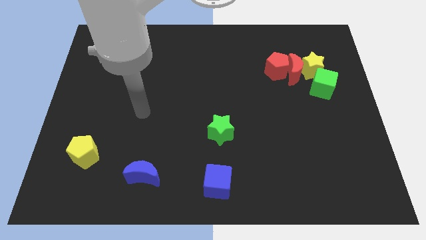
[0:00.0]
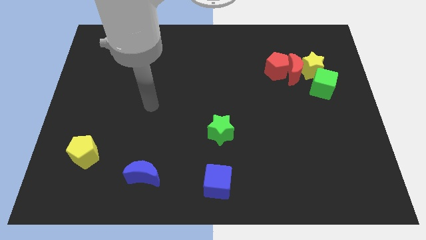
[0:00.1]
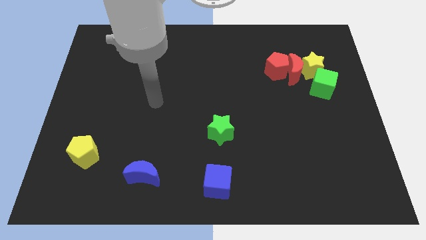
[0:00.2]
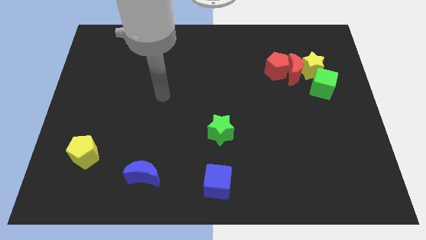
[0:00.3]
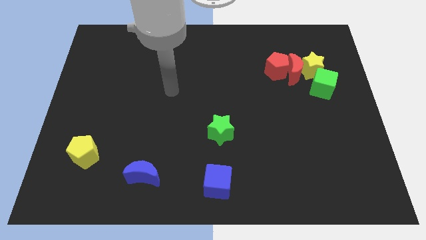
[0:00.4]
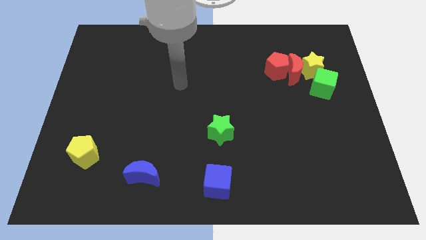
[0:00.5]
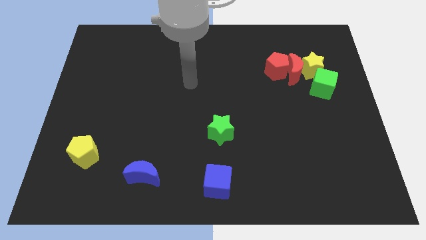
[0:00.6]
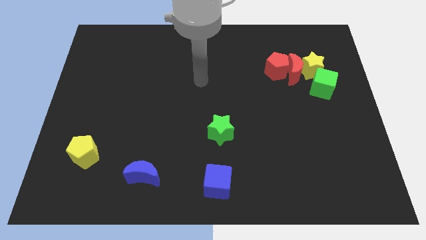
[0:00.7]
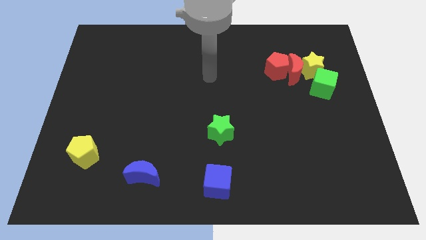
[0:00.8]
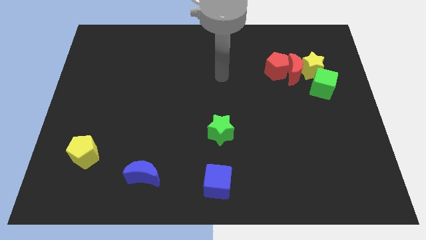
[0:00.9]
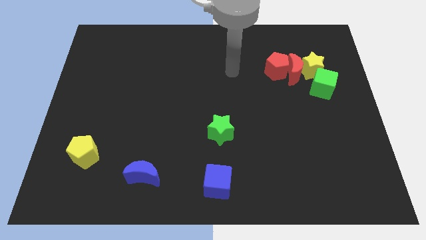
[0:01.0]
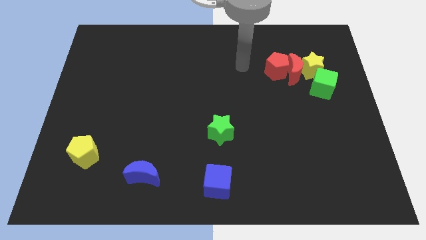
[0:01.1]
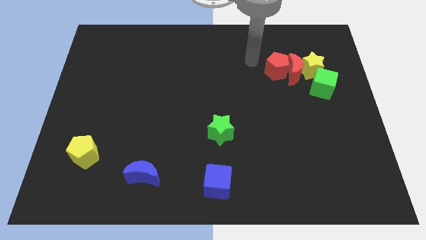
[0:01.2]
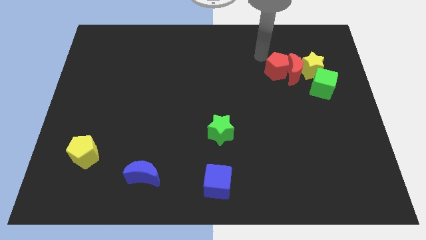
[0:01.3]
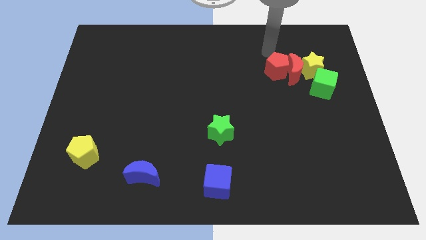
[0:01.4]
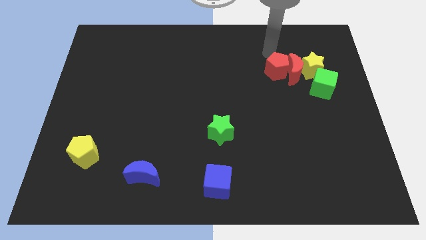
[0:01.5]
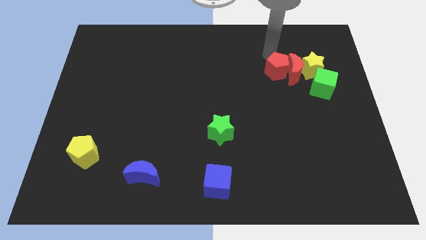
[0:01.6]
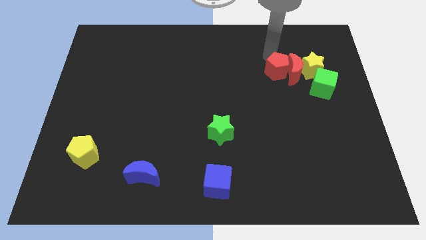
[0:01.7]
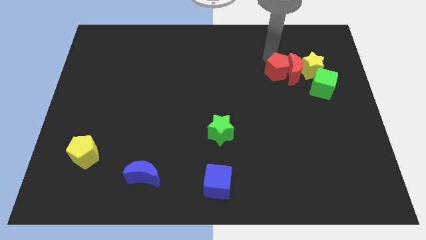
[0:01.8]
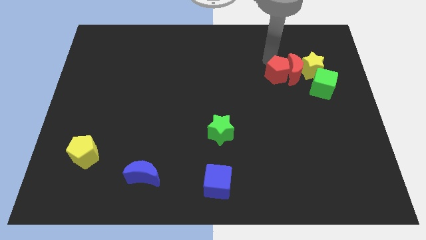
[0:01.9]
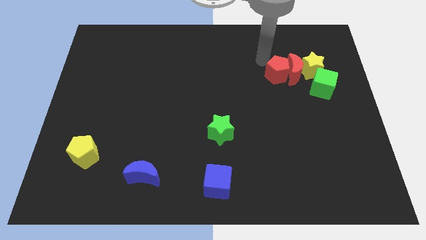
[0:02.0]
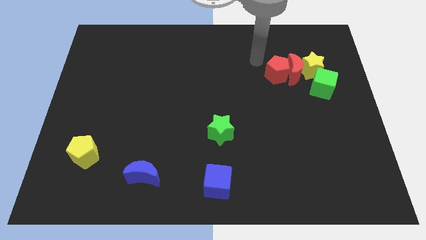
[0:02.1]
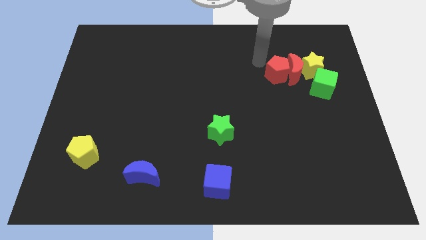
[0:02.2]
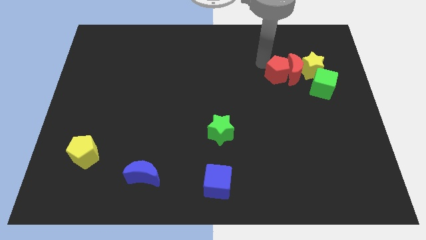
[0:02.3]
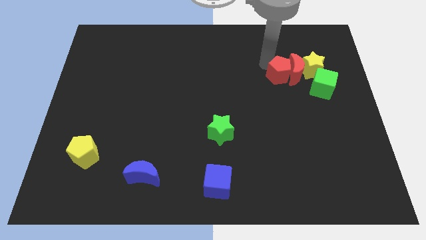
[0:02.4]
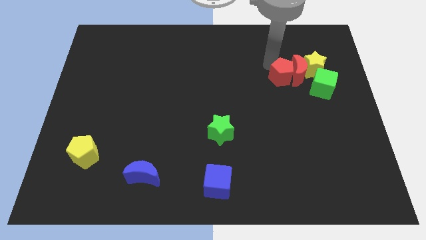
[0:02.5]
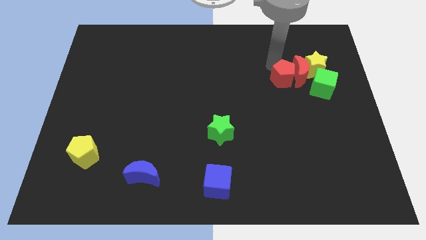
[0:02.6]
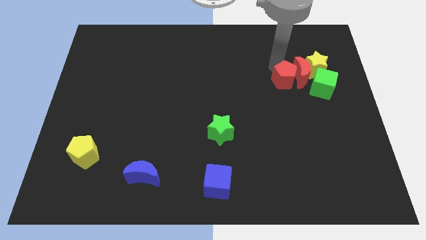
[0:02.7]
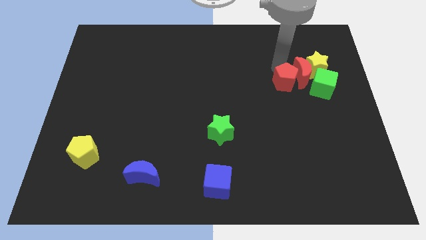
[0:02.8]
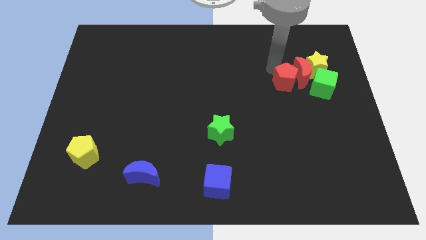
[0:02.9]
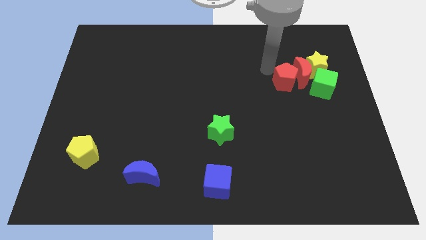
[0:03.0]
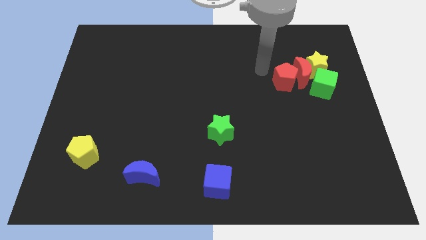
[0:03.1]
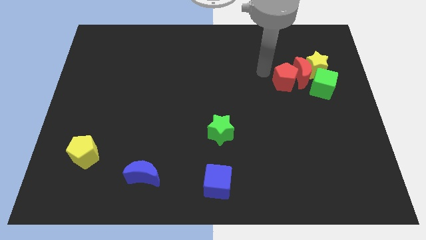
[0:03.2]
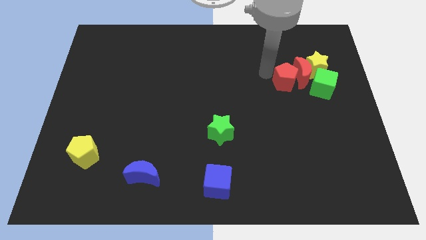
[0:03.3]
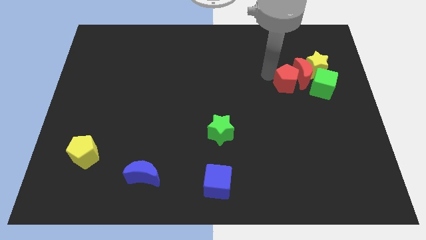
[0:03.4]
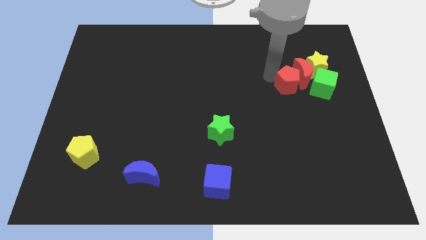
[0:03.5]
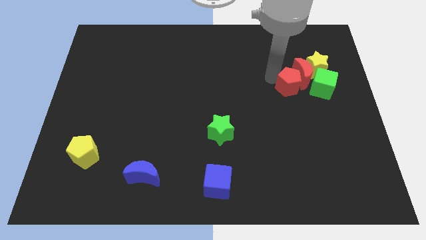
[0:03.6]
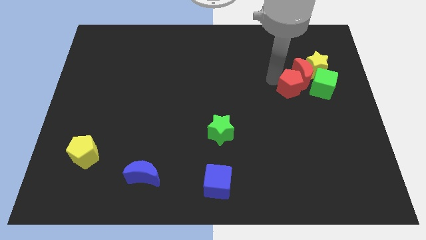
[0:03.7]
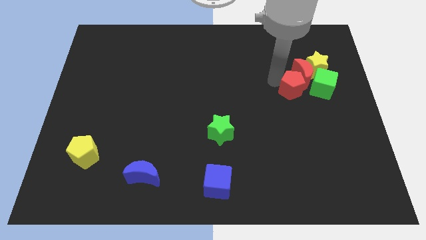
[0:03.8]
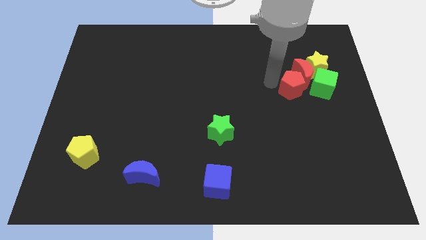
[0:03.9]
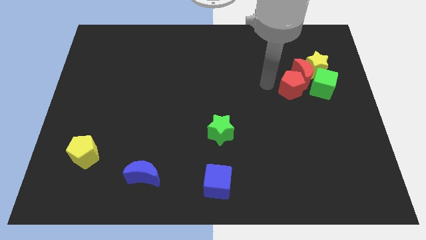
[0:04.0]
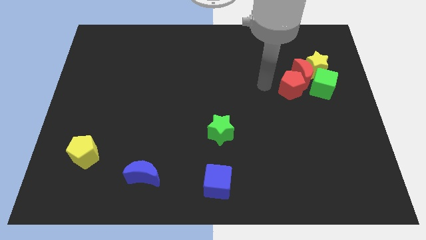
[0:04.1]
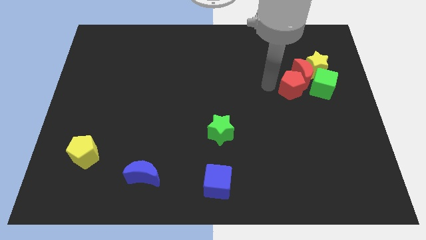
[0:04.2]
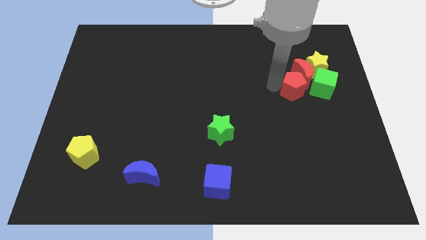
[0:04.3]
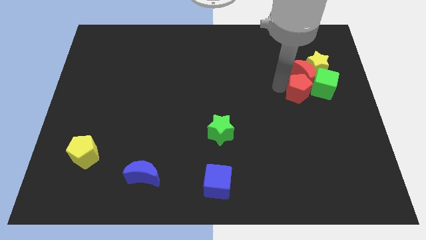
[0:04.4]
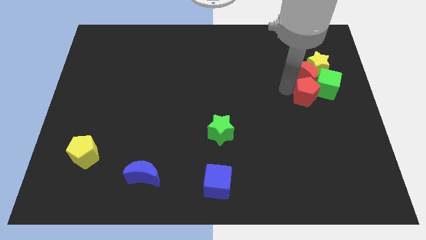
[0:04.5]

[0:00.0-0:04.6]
slide the red pentagon towards the green cube

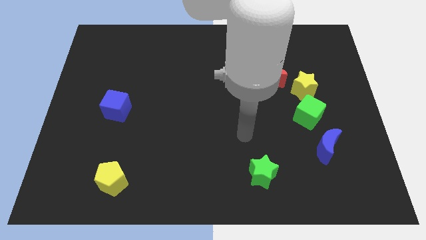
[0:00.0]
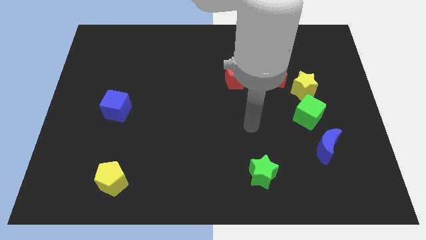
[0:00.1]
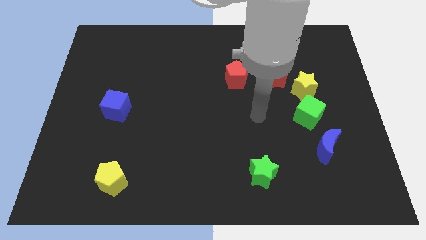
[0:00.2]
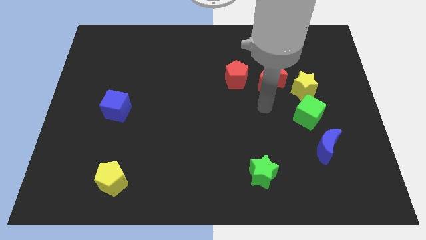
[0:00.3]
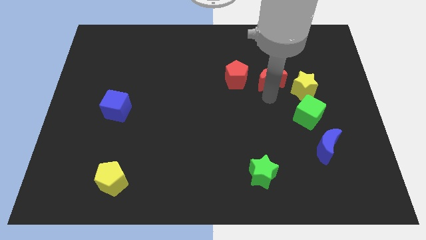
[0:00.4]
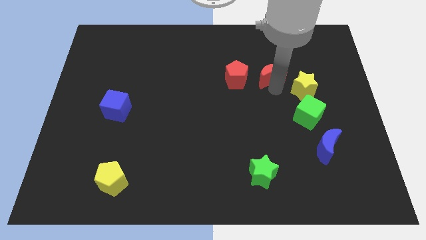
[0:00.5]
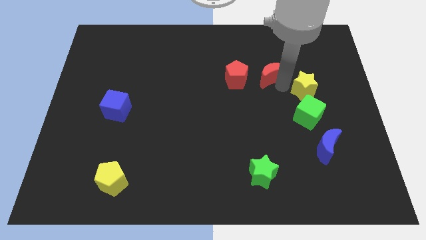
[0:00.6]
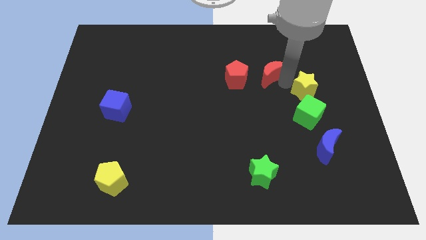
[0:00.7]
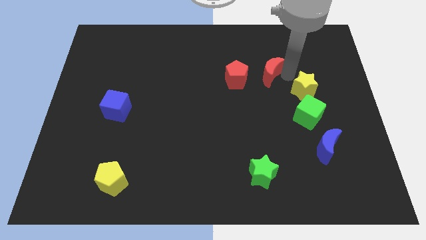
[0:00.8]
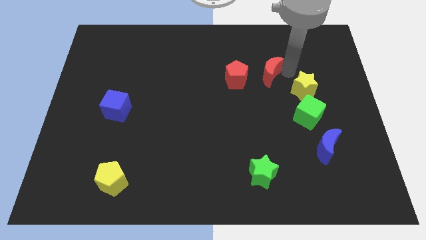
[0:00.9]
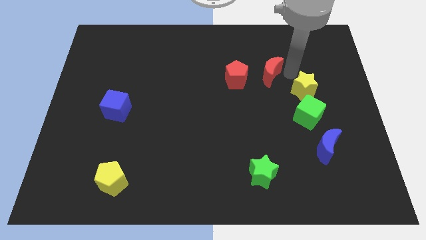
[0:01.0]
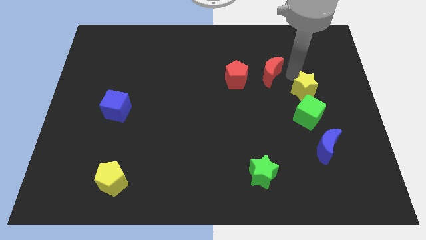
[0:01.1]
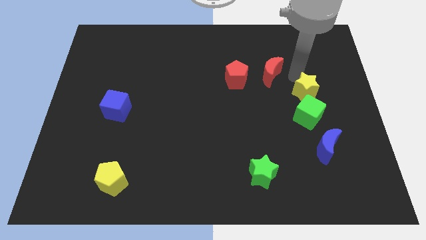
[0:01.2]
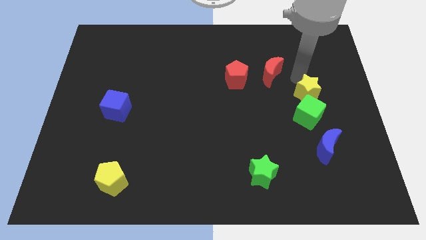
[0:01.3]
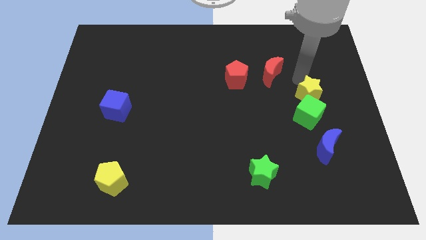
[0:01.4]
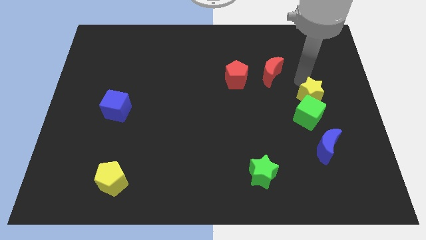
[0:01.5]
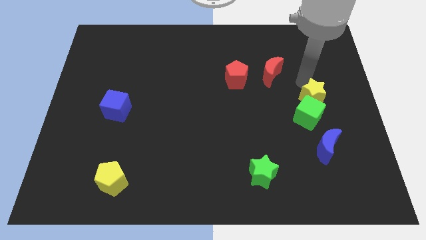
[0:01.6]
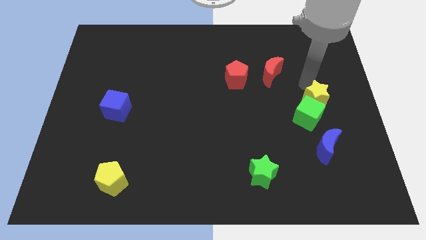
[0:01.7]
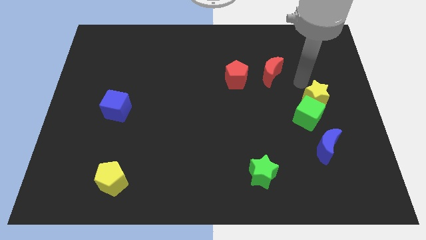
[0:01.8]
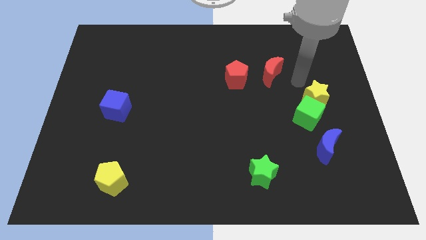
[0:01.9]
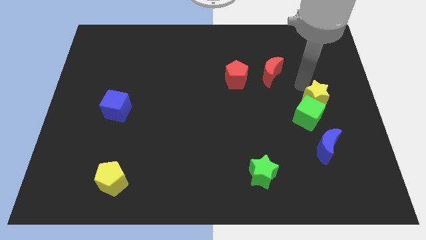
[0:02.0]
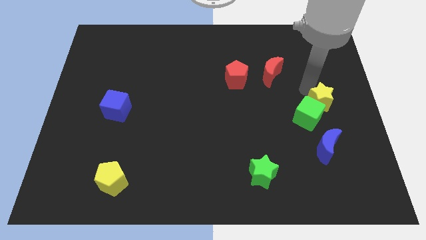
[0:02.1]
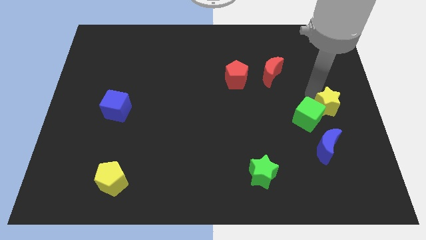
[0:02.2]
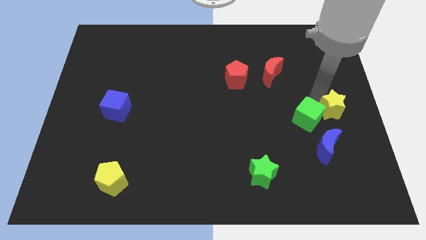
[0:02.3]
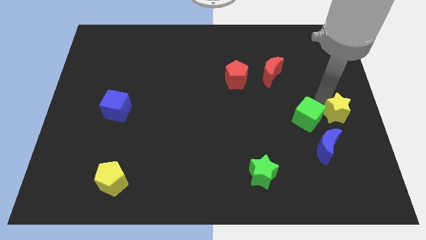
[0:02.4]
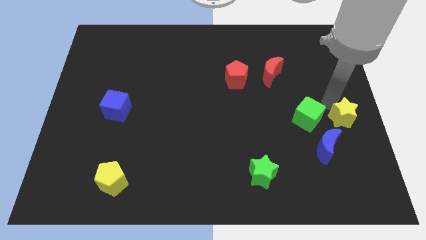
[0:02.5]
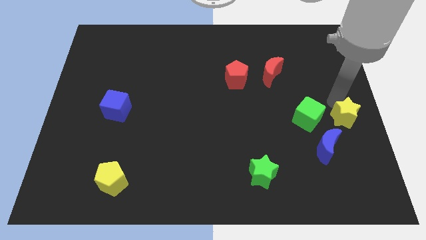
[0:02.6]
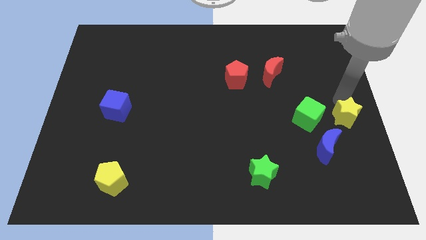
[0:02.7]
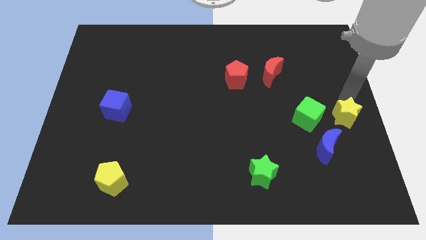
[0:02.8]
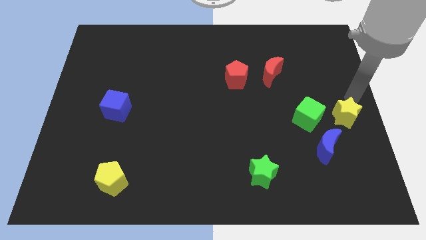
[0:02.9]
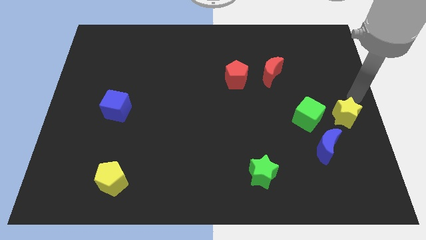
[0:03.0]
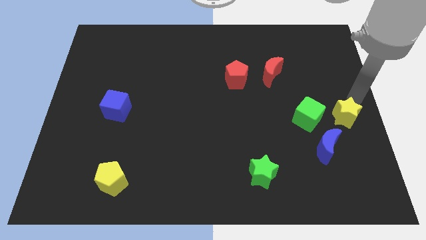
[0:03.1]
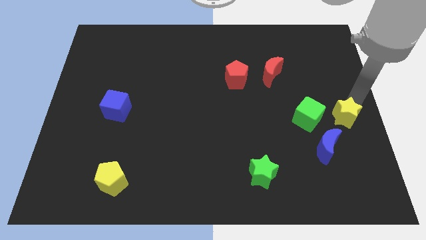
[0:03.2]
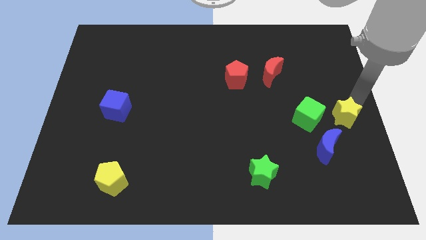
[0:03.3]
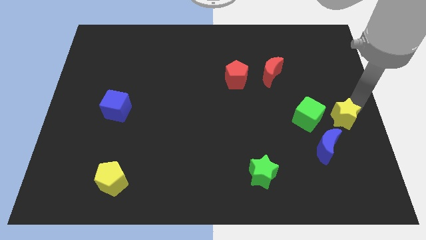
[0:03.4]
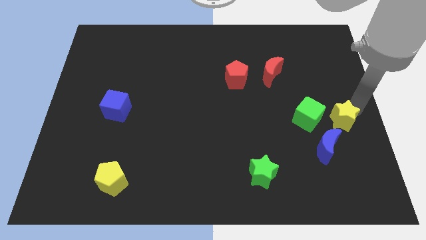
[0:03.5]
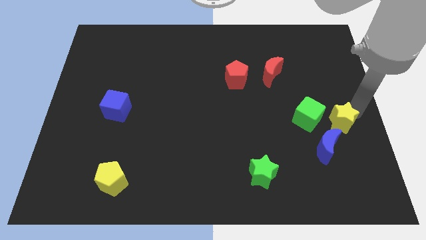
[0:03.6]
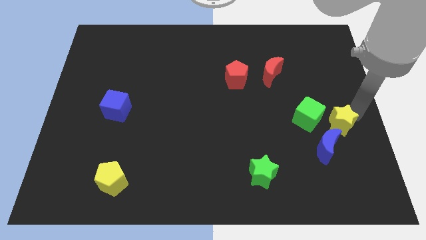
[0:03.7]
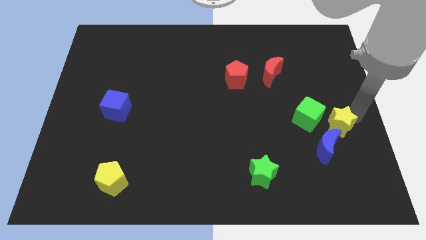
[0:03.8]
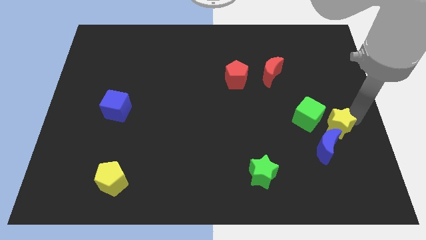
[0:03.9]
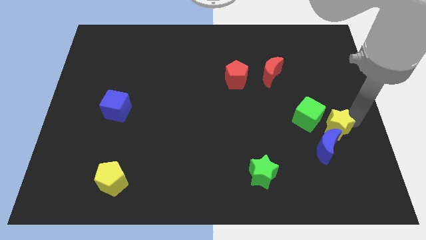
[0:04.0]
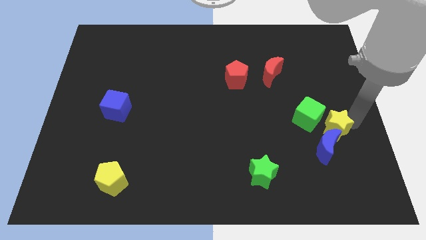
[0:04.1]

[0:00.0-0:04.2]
move the yellow star close to the blue moon
